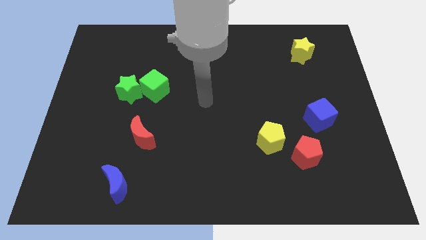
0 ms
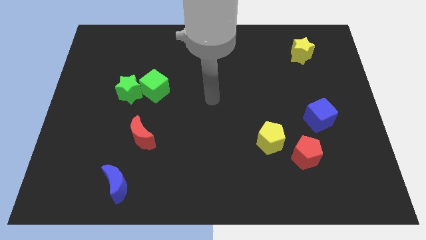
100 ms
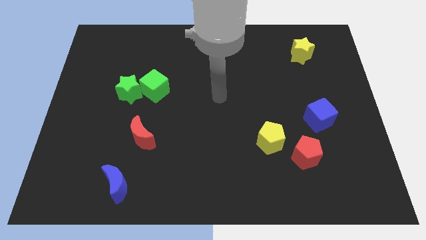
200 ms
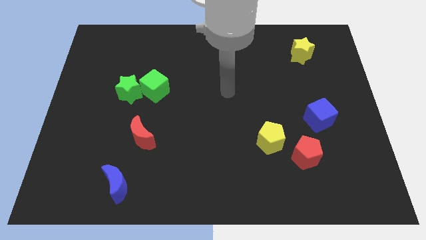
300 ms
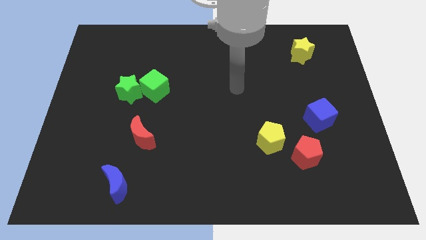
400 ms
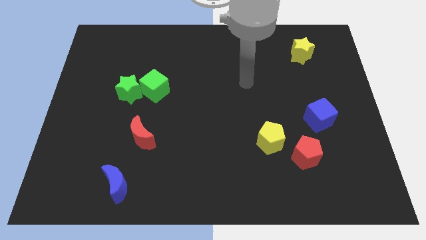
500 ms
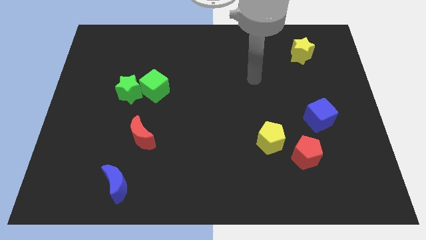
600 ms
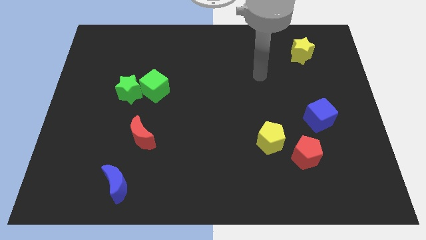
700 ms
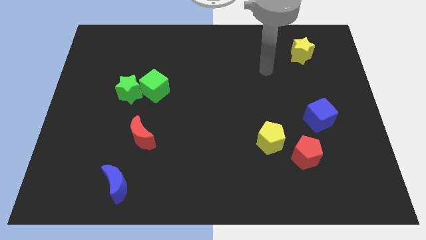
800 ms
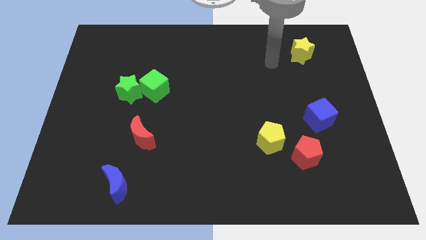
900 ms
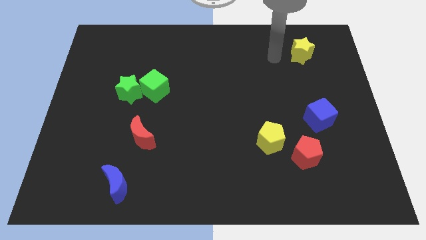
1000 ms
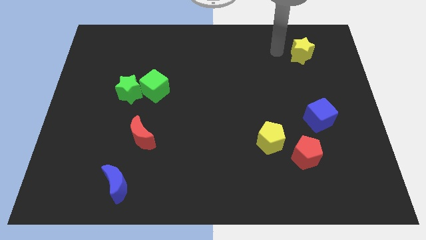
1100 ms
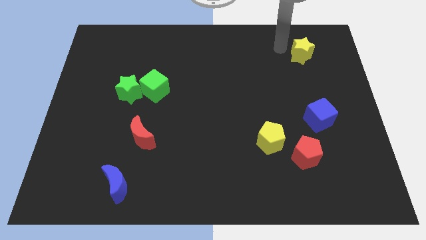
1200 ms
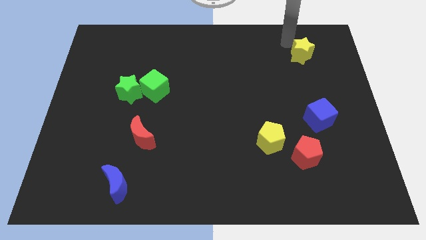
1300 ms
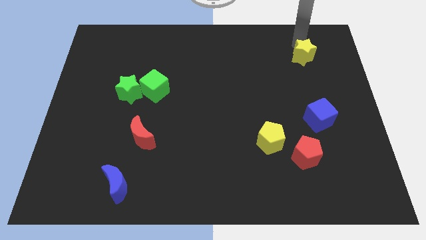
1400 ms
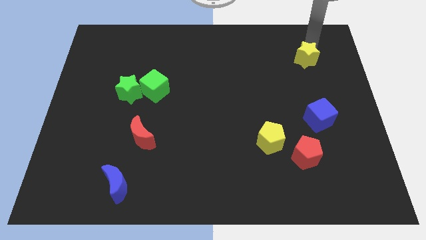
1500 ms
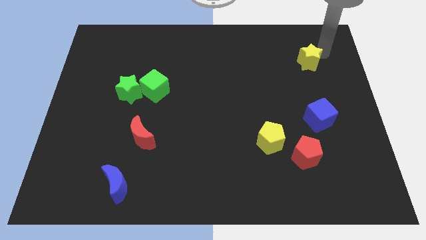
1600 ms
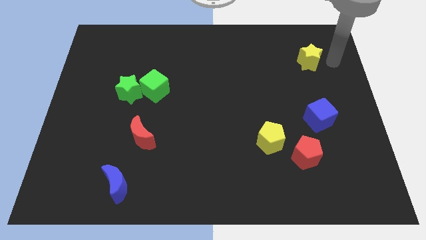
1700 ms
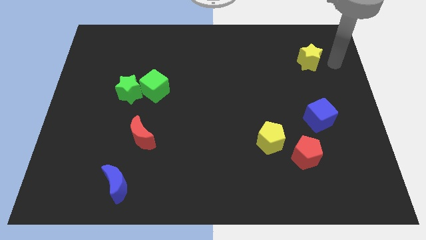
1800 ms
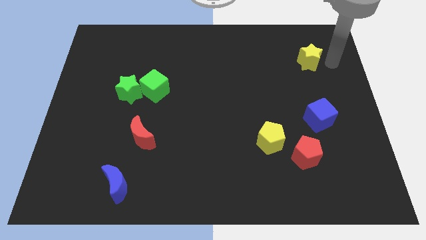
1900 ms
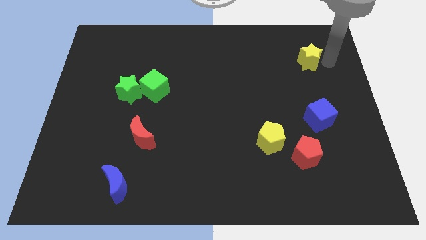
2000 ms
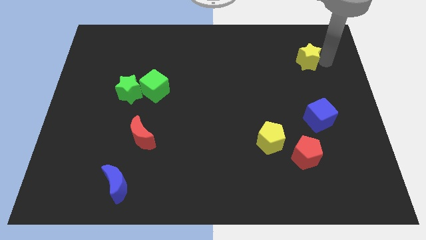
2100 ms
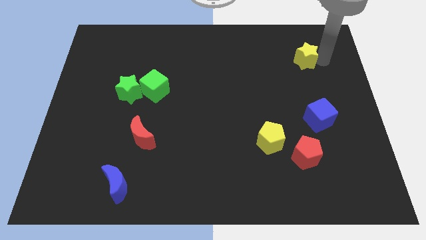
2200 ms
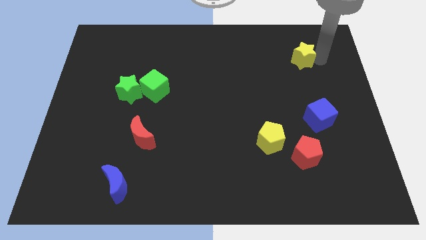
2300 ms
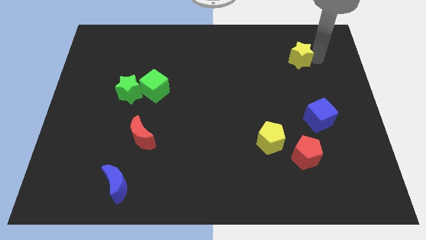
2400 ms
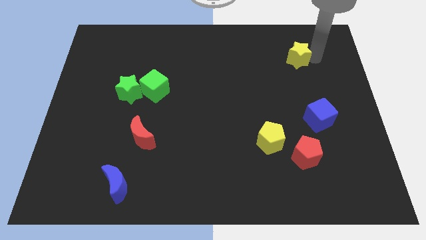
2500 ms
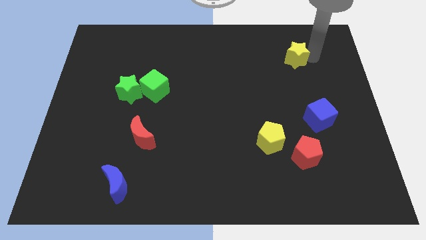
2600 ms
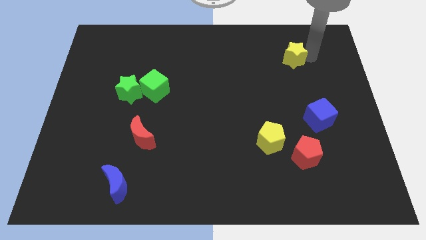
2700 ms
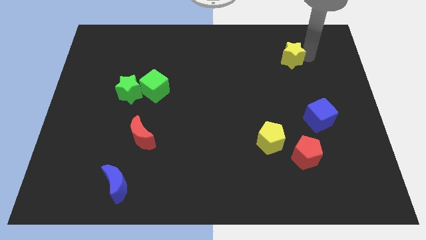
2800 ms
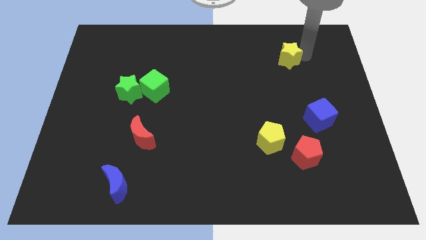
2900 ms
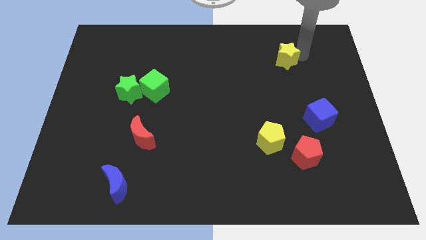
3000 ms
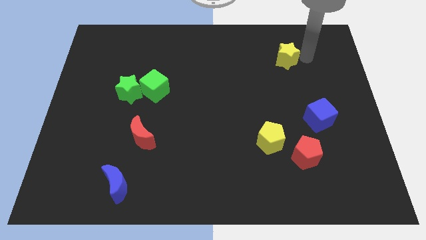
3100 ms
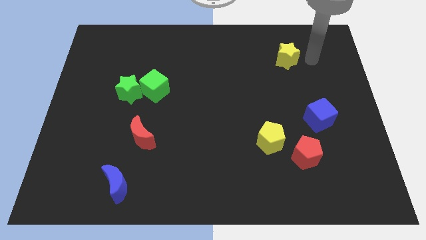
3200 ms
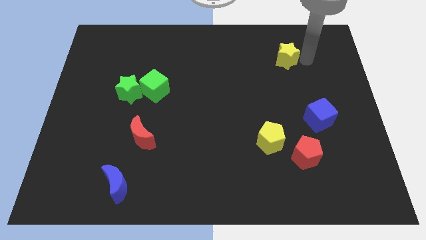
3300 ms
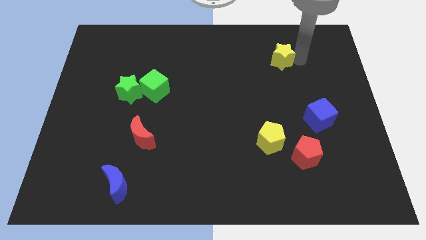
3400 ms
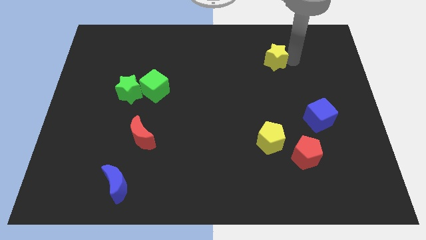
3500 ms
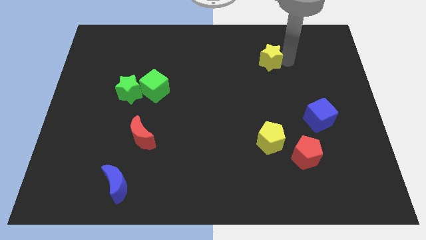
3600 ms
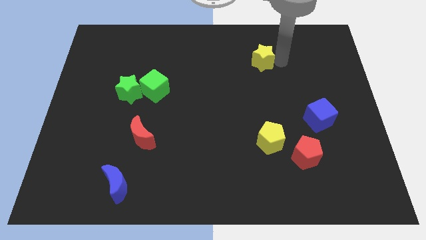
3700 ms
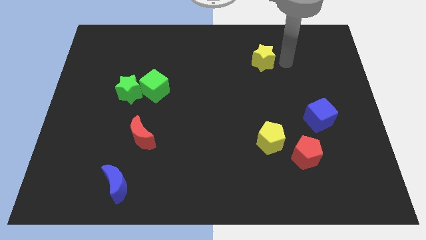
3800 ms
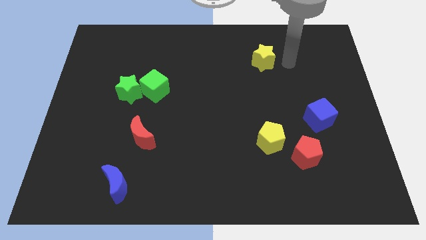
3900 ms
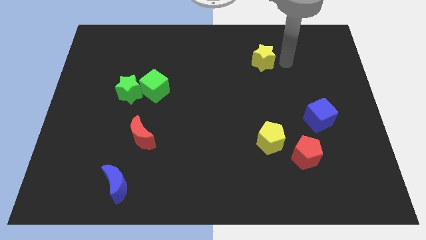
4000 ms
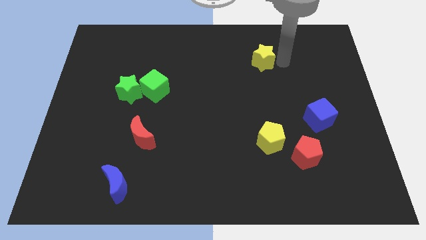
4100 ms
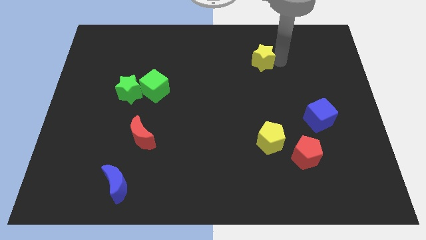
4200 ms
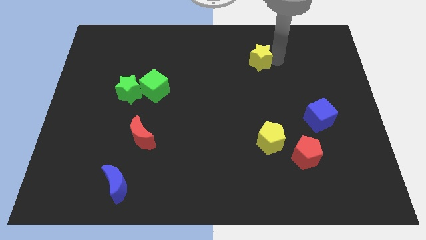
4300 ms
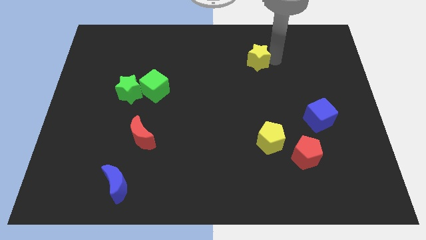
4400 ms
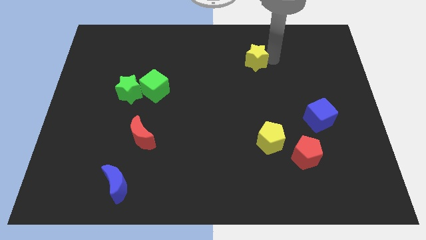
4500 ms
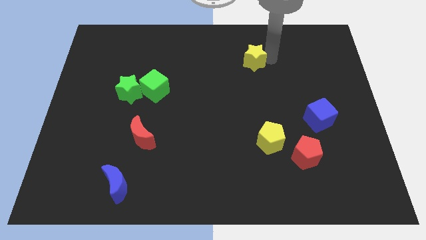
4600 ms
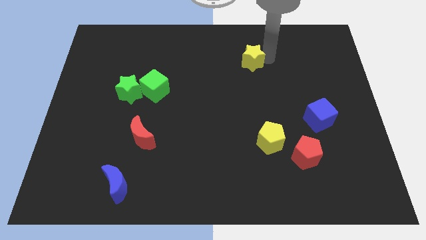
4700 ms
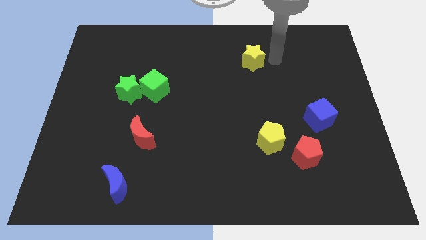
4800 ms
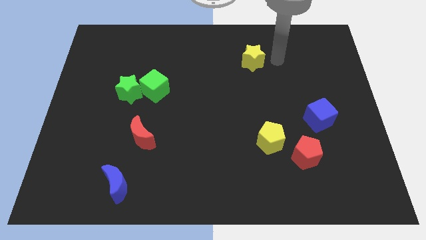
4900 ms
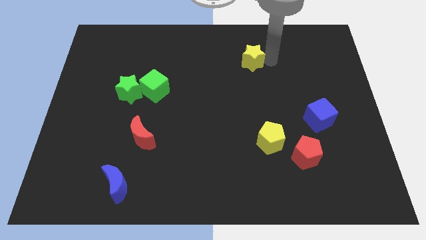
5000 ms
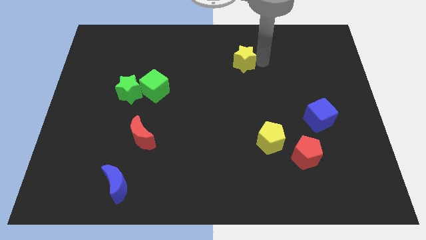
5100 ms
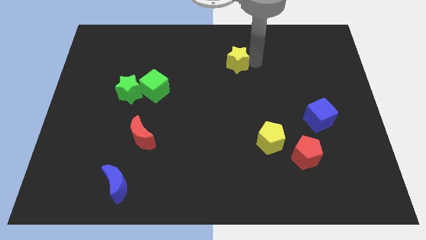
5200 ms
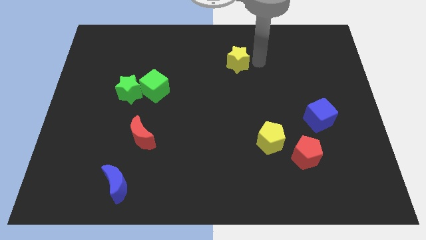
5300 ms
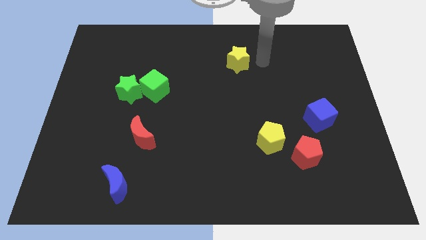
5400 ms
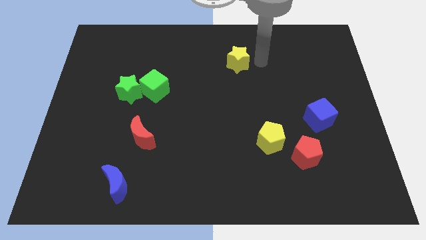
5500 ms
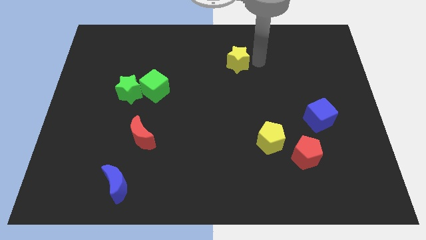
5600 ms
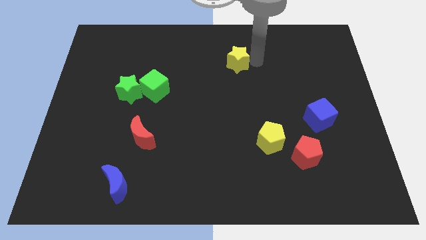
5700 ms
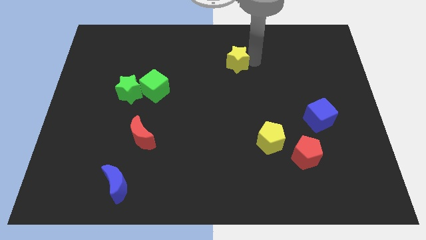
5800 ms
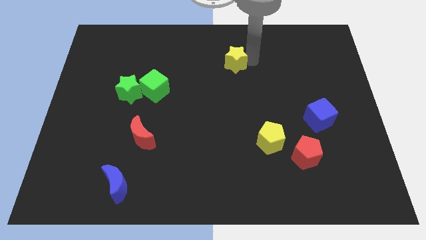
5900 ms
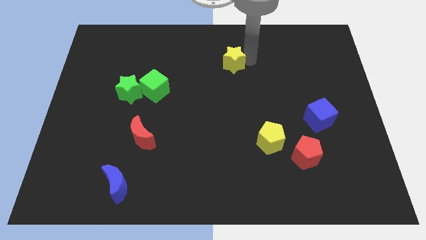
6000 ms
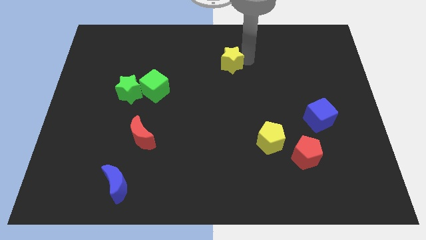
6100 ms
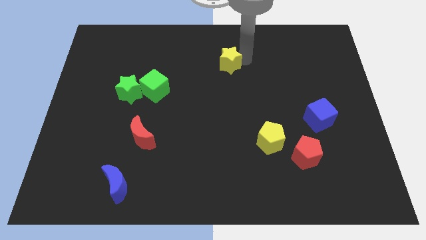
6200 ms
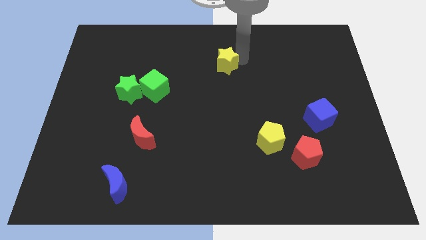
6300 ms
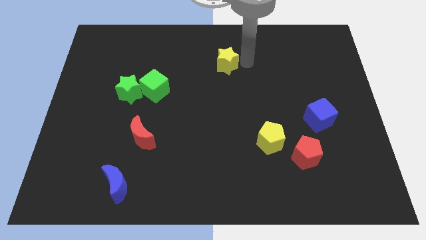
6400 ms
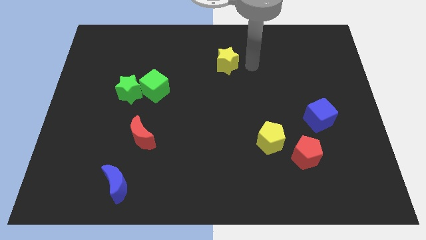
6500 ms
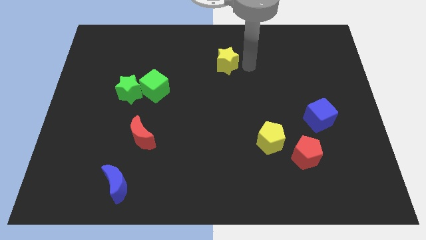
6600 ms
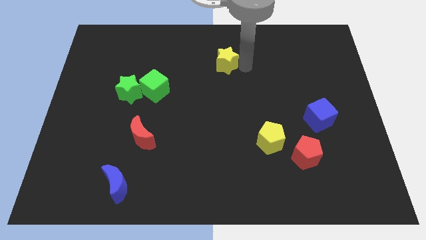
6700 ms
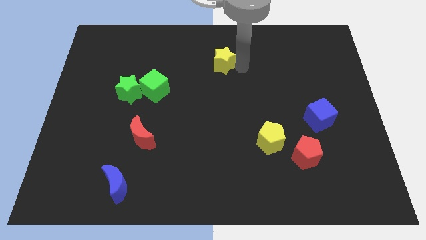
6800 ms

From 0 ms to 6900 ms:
slide the yellow star left

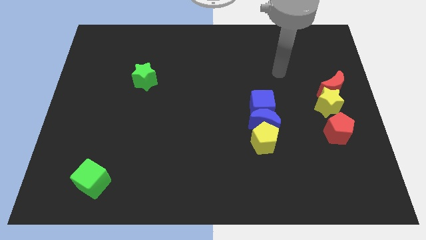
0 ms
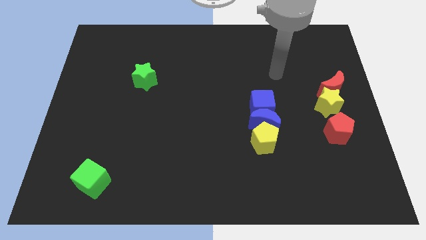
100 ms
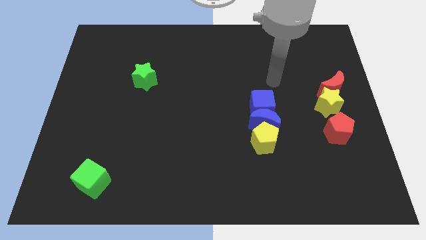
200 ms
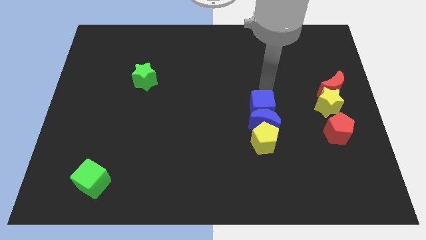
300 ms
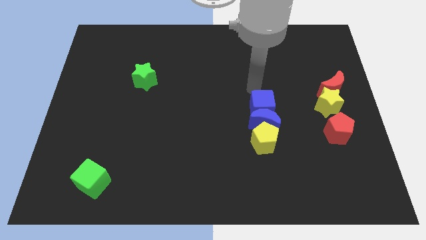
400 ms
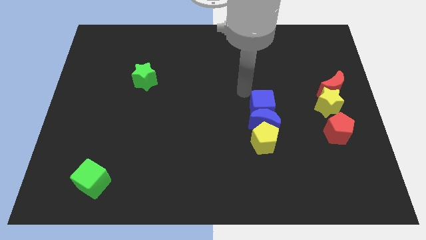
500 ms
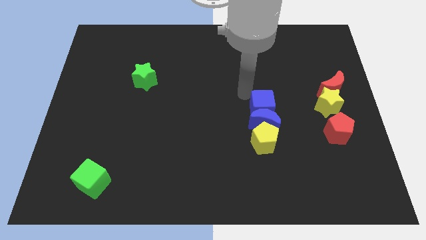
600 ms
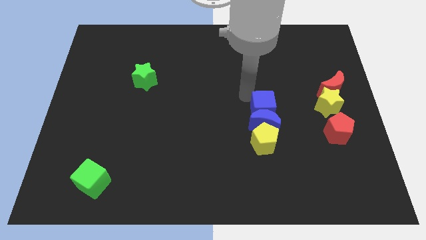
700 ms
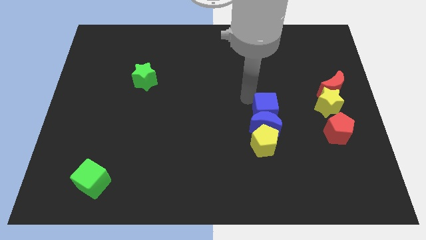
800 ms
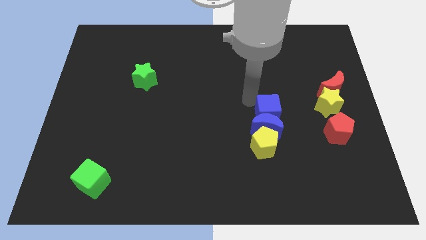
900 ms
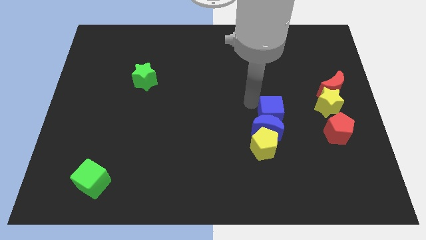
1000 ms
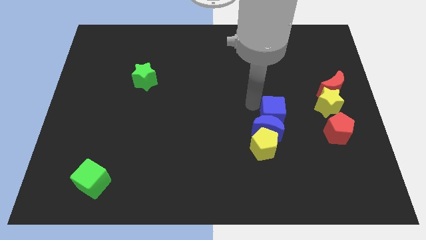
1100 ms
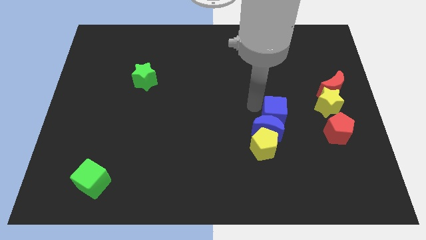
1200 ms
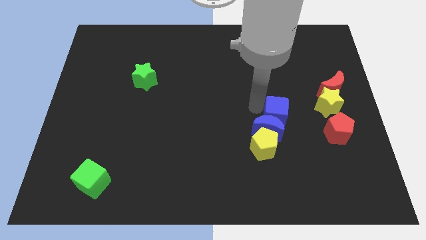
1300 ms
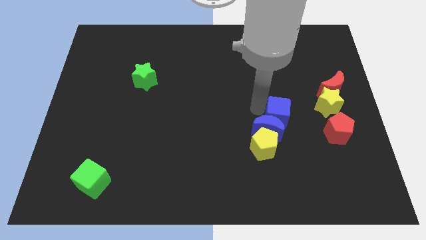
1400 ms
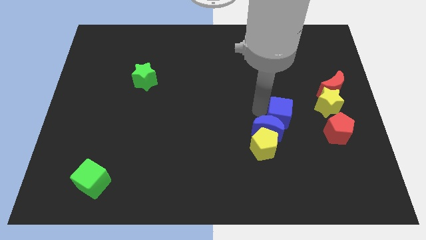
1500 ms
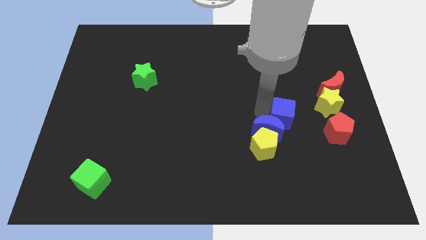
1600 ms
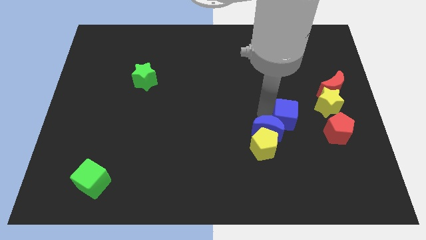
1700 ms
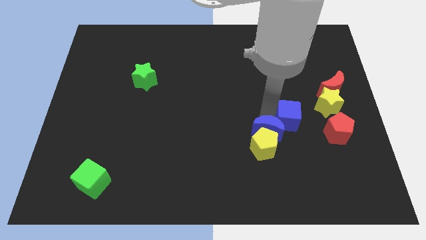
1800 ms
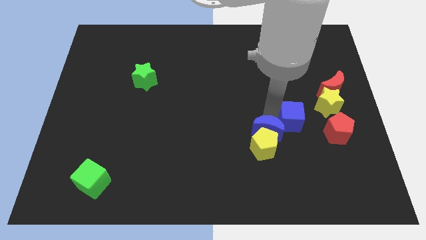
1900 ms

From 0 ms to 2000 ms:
move the blue cube a little bit downwards and then right
